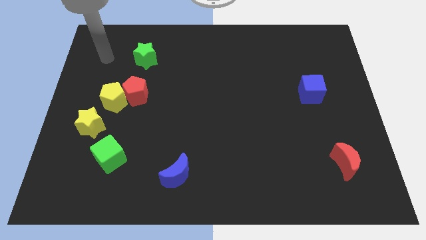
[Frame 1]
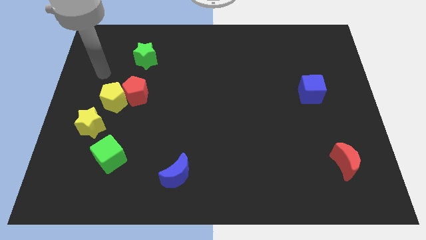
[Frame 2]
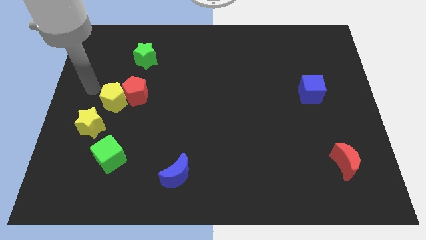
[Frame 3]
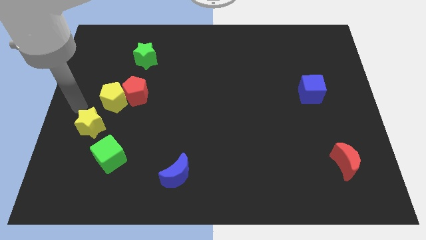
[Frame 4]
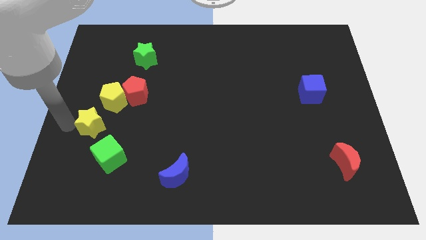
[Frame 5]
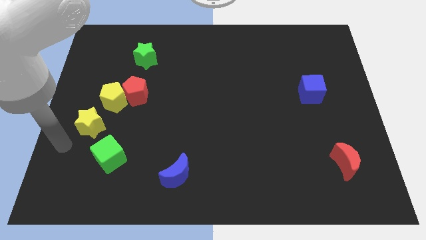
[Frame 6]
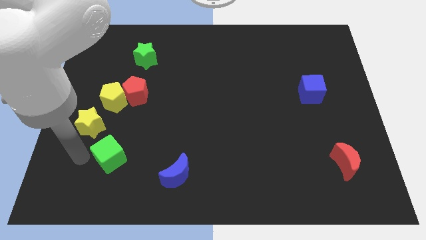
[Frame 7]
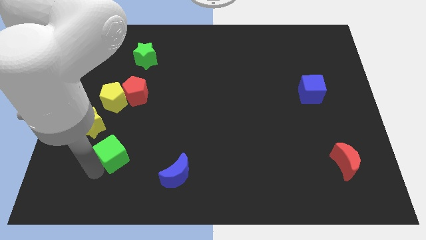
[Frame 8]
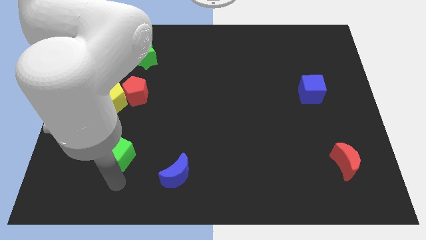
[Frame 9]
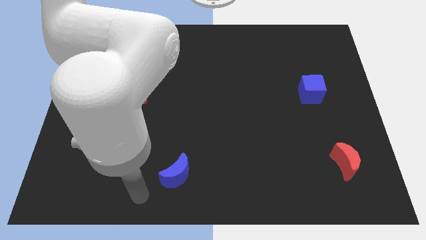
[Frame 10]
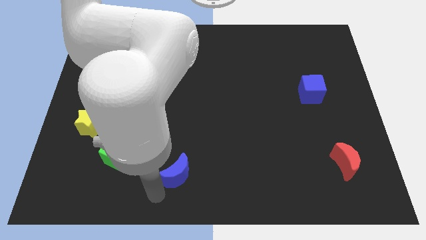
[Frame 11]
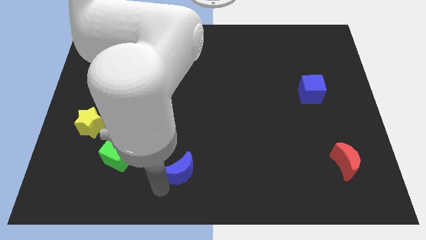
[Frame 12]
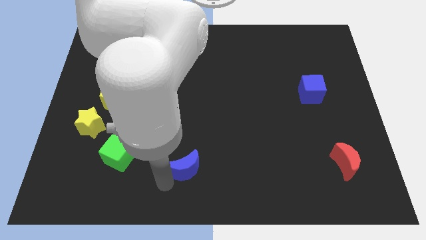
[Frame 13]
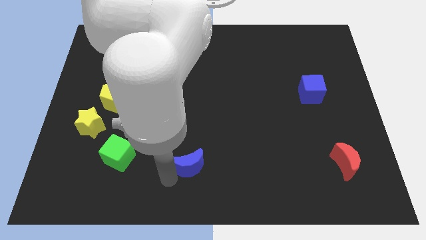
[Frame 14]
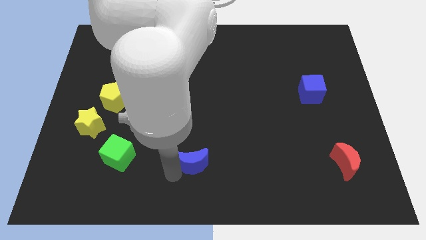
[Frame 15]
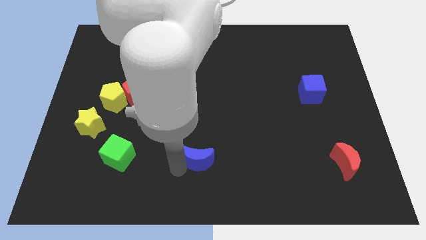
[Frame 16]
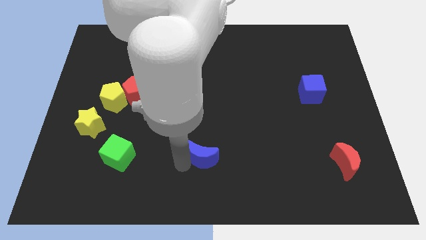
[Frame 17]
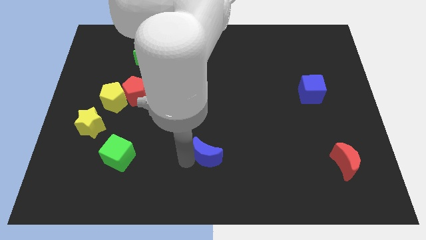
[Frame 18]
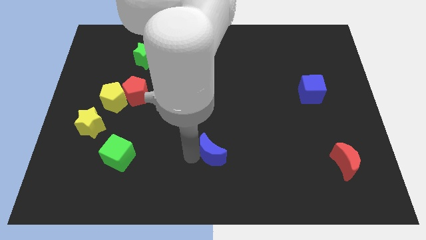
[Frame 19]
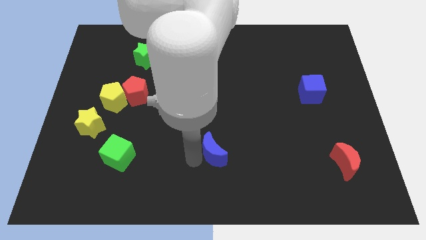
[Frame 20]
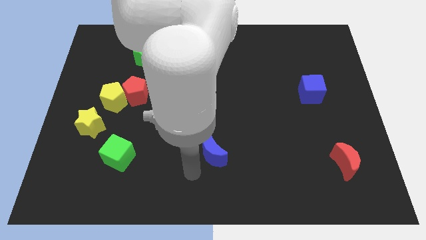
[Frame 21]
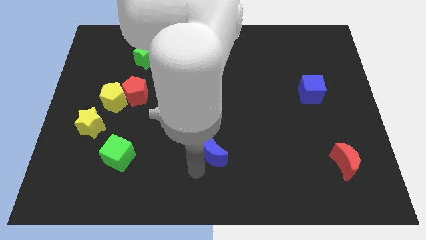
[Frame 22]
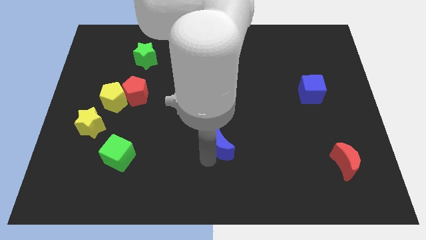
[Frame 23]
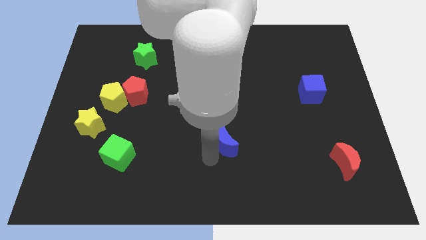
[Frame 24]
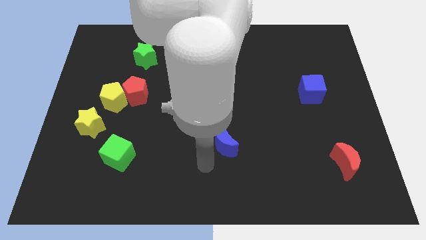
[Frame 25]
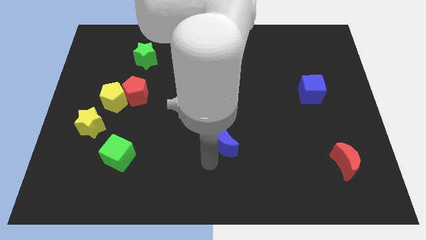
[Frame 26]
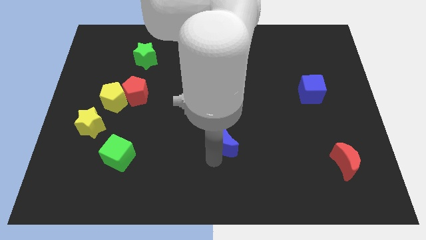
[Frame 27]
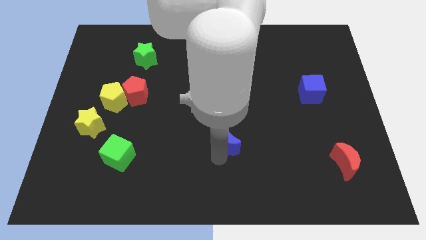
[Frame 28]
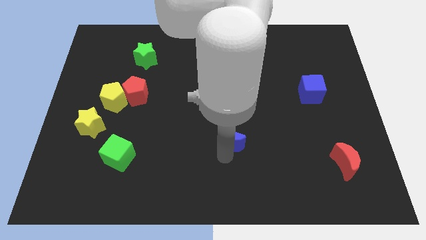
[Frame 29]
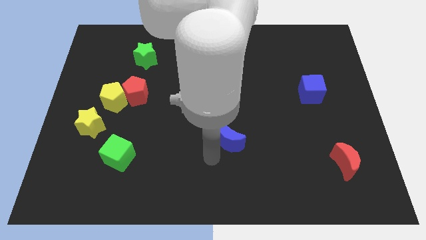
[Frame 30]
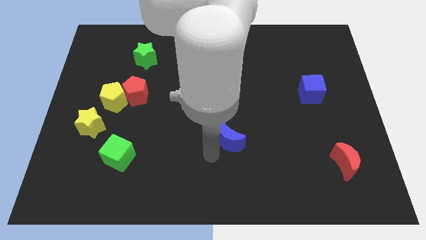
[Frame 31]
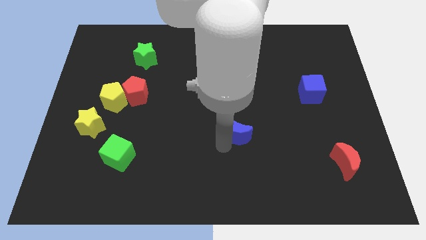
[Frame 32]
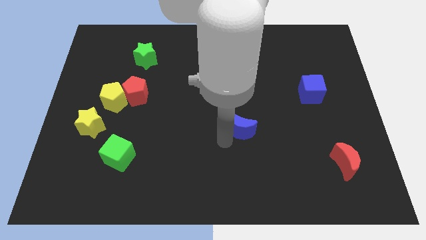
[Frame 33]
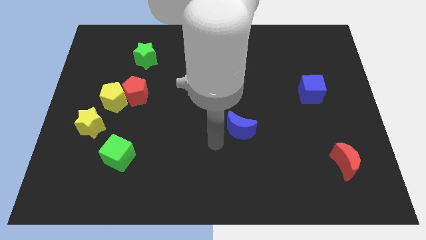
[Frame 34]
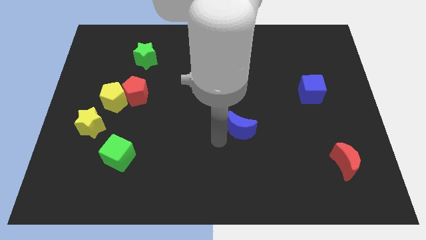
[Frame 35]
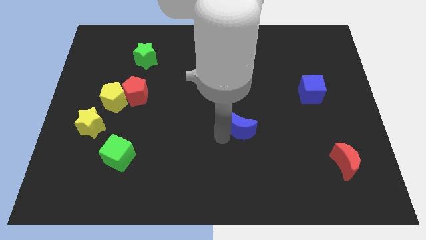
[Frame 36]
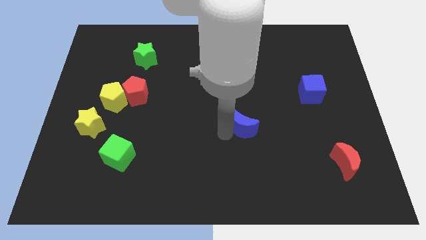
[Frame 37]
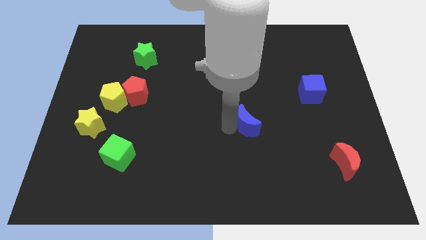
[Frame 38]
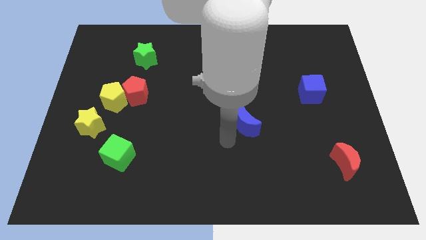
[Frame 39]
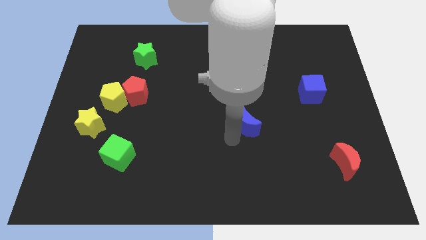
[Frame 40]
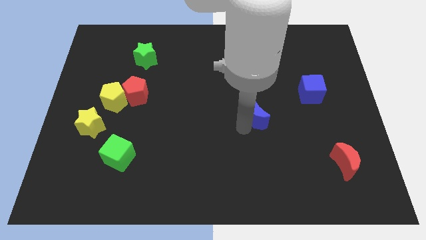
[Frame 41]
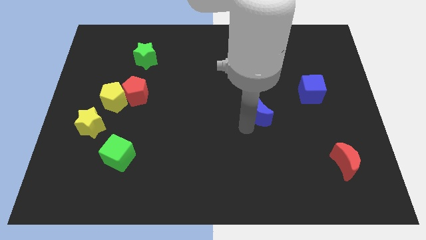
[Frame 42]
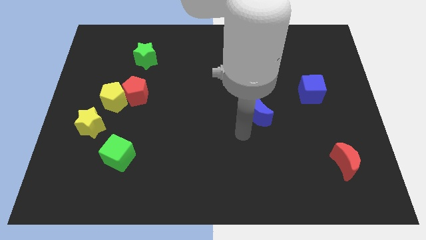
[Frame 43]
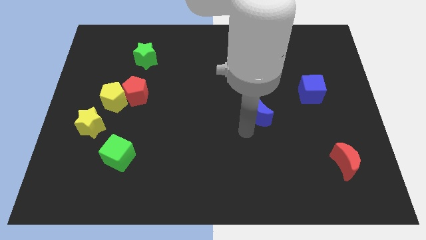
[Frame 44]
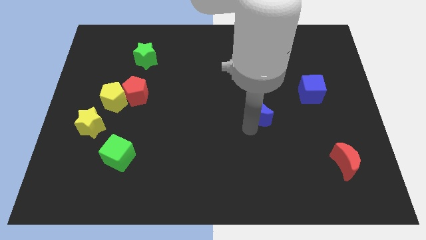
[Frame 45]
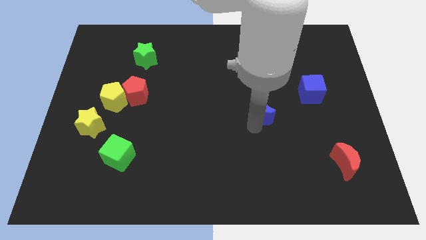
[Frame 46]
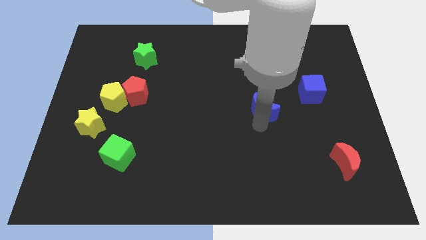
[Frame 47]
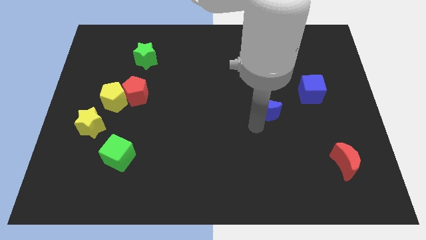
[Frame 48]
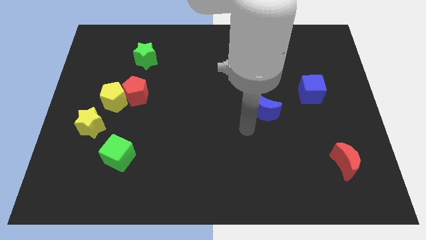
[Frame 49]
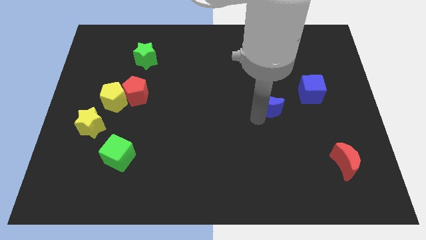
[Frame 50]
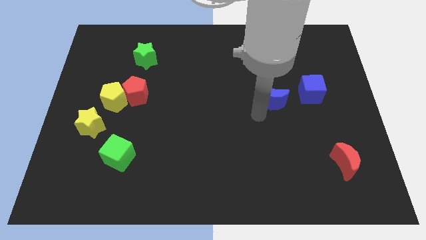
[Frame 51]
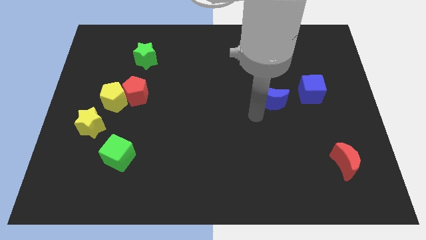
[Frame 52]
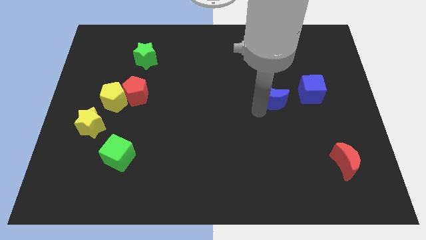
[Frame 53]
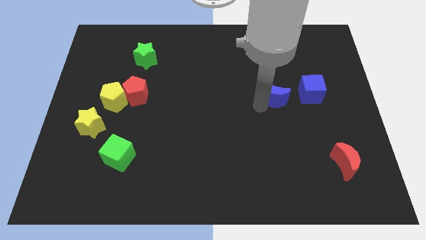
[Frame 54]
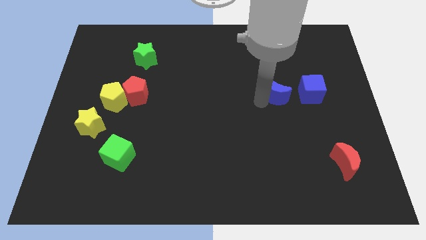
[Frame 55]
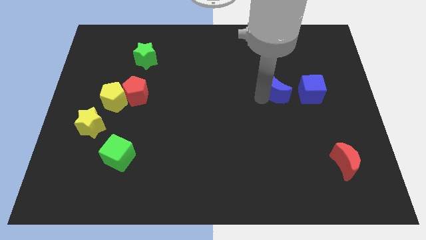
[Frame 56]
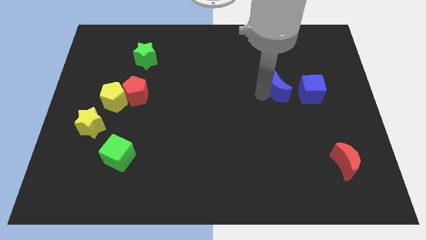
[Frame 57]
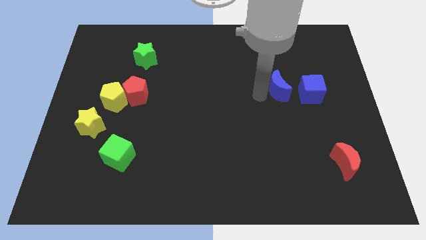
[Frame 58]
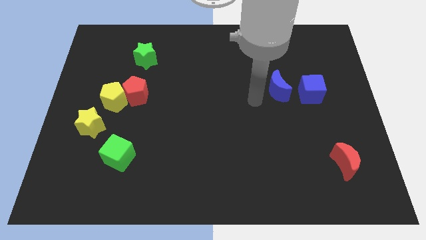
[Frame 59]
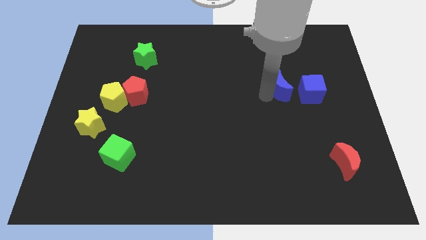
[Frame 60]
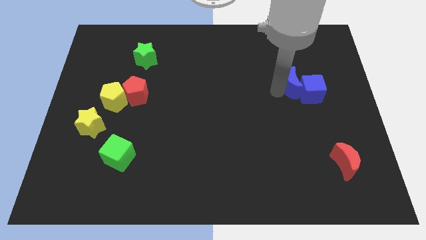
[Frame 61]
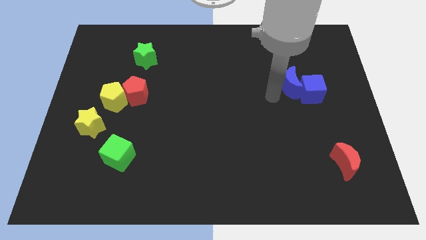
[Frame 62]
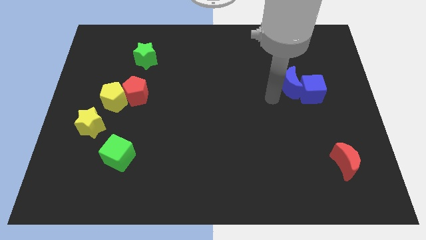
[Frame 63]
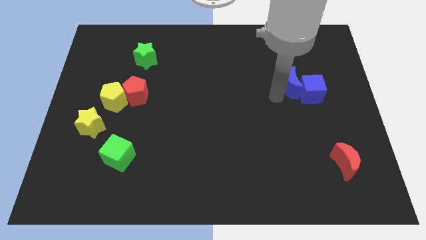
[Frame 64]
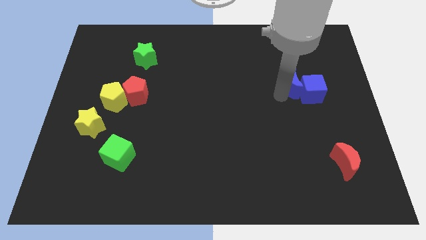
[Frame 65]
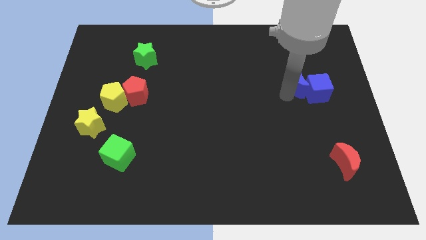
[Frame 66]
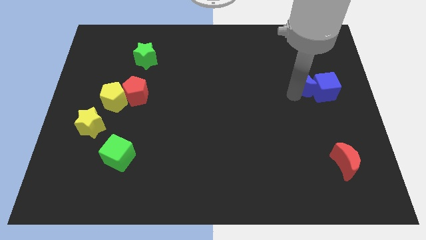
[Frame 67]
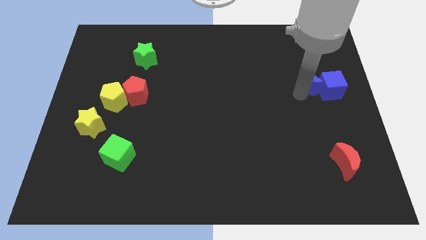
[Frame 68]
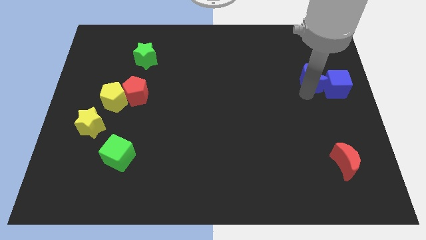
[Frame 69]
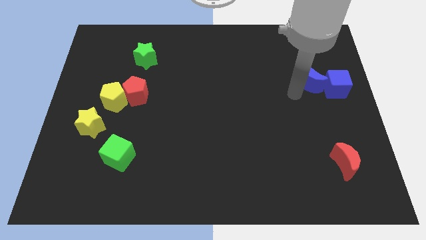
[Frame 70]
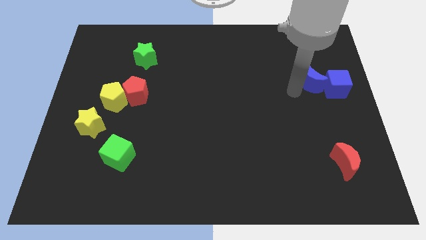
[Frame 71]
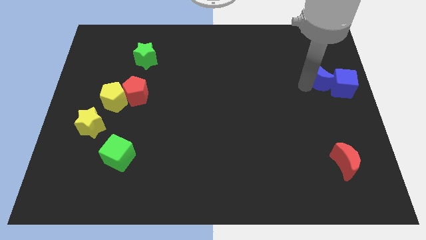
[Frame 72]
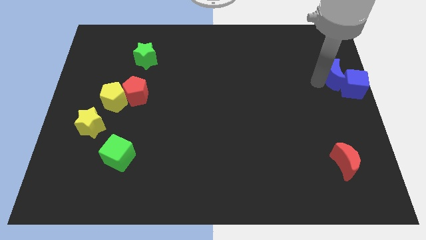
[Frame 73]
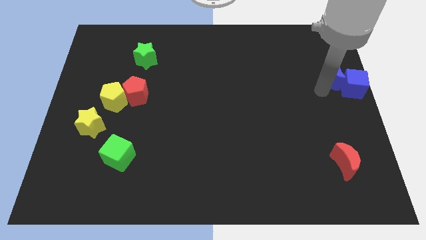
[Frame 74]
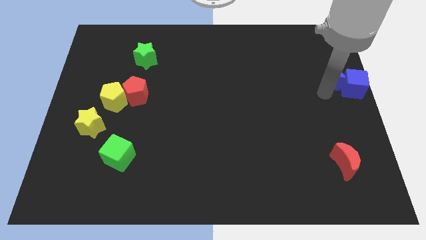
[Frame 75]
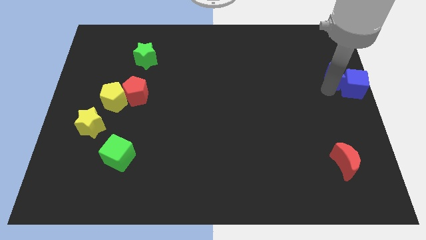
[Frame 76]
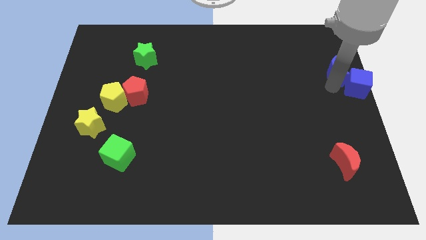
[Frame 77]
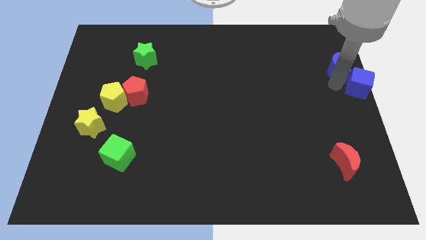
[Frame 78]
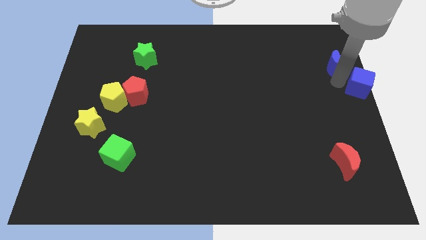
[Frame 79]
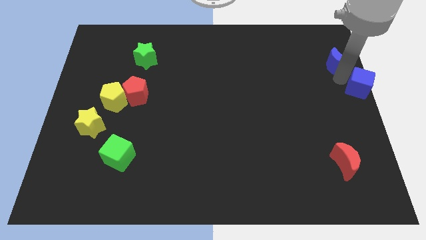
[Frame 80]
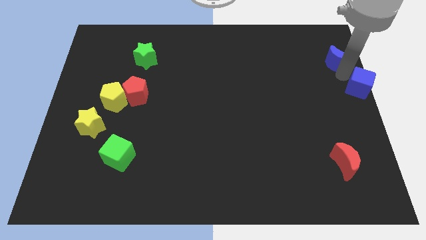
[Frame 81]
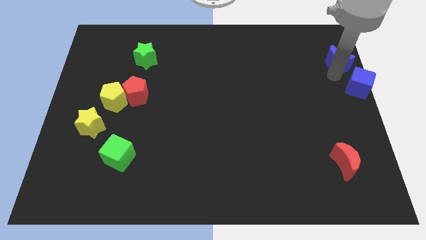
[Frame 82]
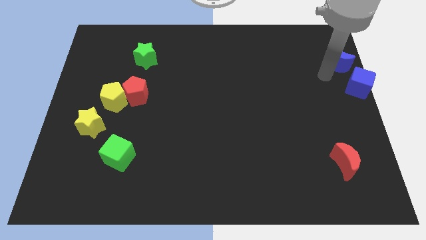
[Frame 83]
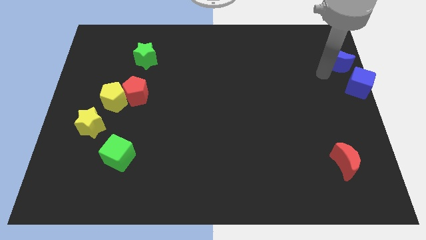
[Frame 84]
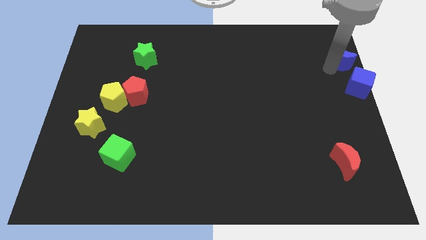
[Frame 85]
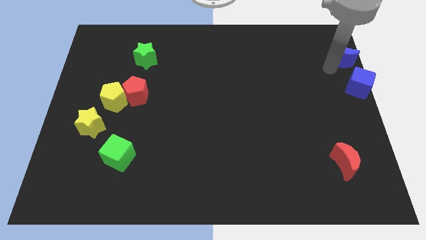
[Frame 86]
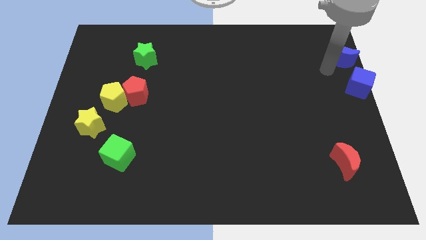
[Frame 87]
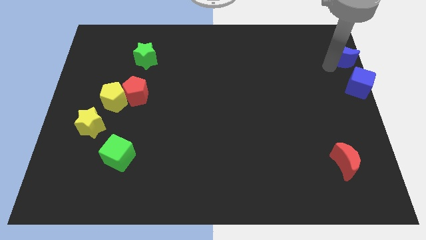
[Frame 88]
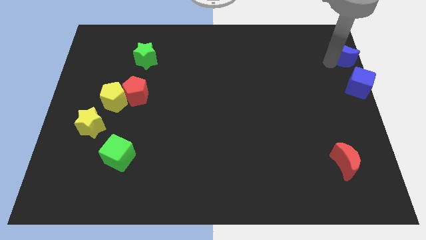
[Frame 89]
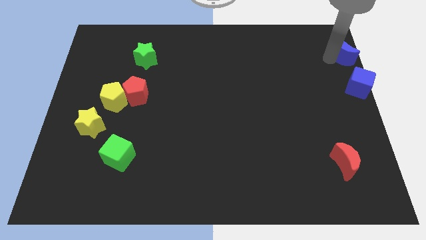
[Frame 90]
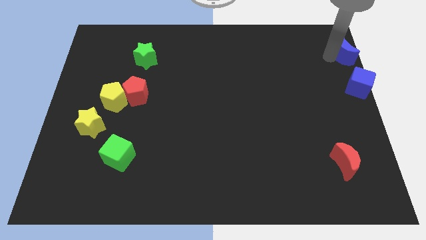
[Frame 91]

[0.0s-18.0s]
put the blue moon to the top right
